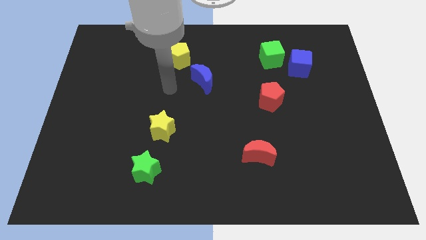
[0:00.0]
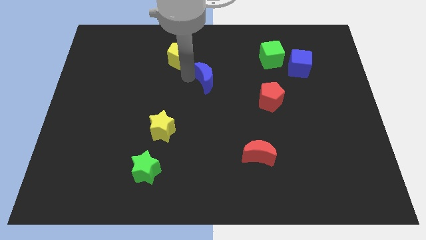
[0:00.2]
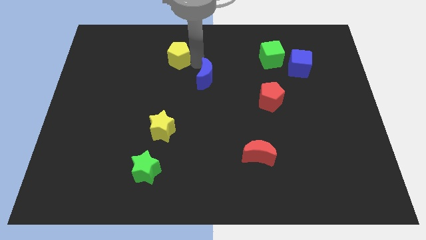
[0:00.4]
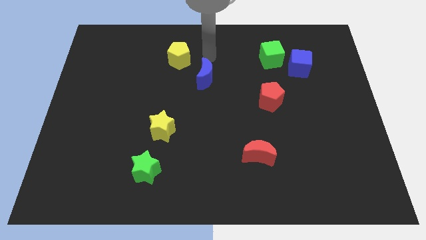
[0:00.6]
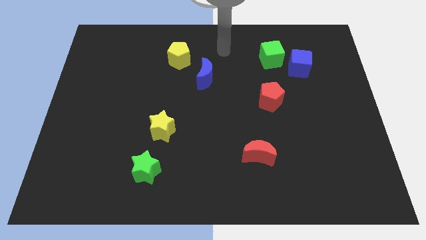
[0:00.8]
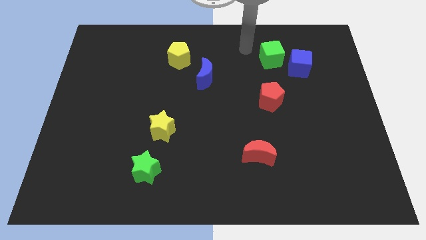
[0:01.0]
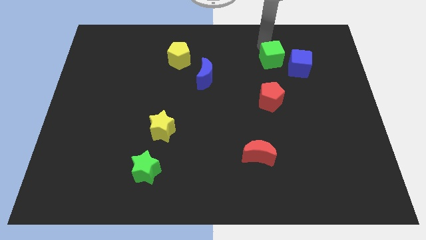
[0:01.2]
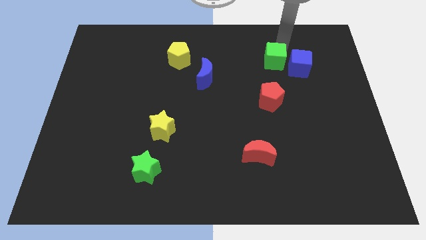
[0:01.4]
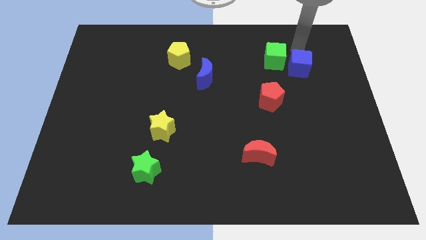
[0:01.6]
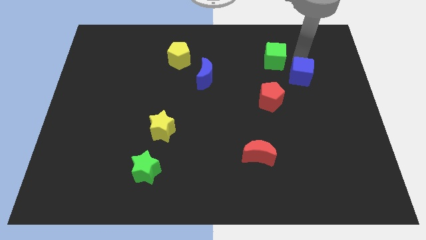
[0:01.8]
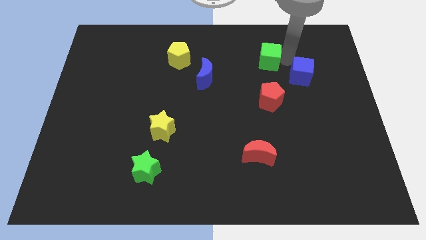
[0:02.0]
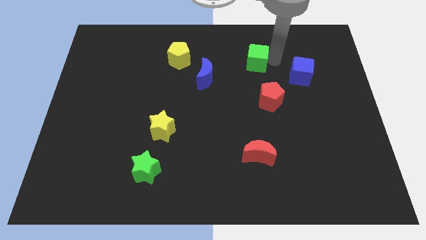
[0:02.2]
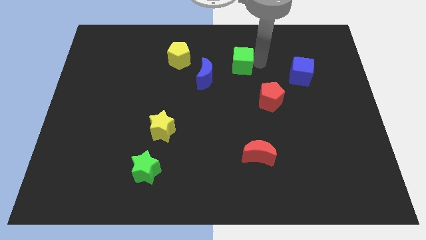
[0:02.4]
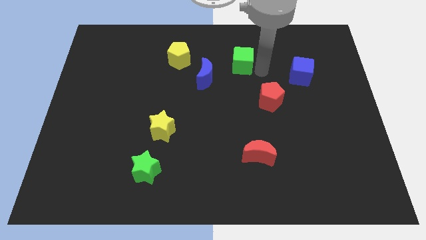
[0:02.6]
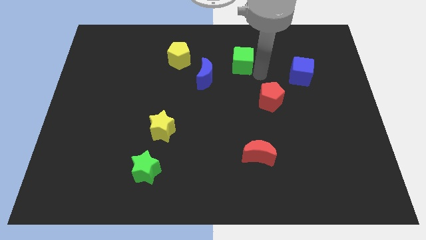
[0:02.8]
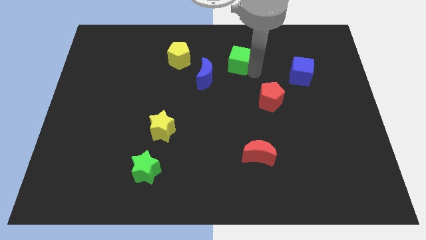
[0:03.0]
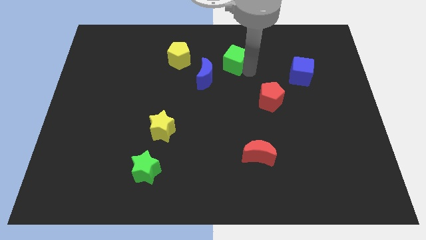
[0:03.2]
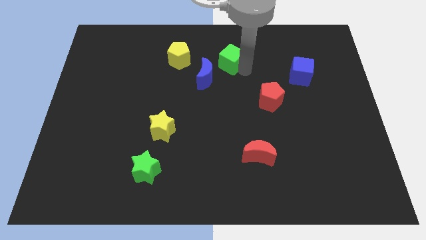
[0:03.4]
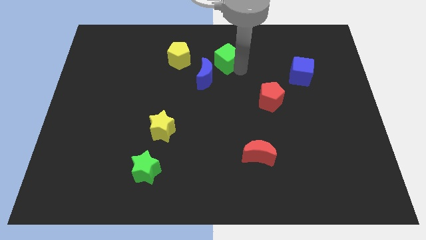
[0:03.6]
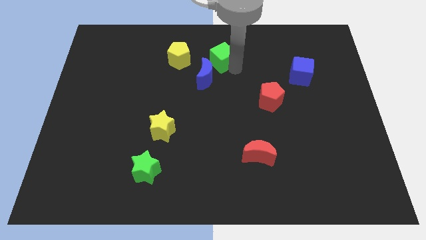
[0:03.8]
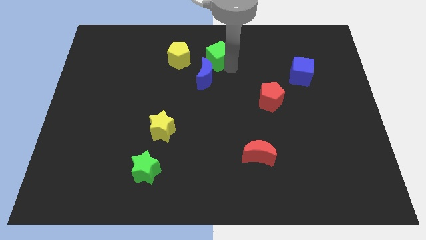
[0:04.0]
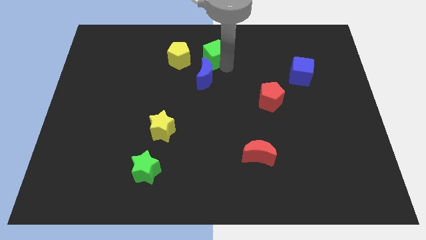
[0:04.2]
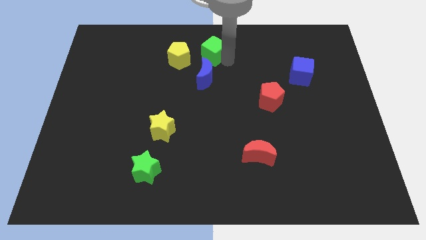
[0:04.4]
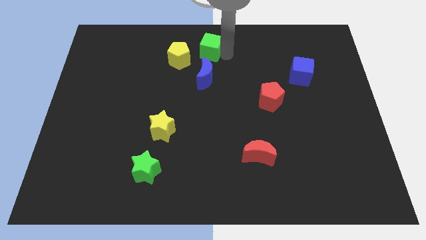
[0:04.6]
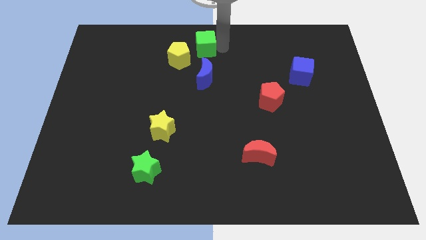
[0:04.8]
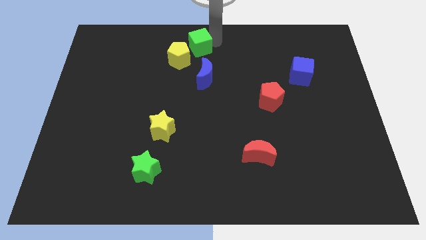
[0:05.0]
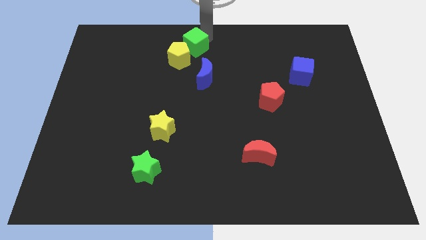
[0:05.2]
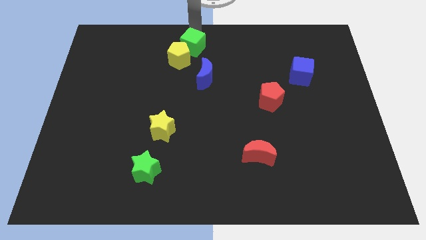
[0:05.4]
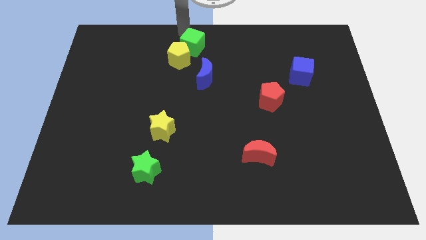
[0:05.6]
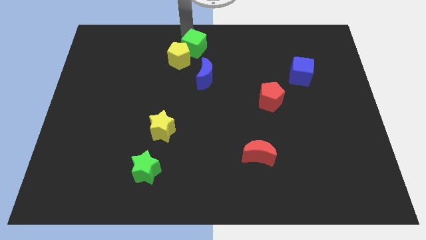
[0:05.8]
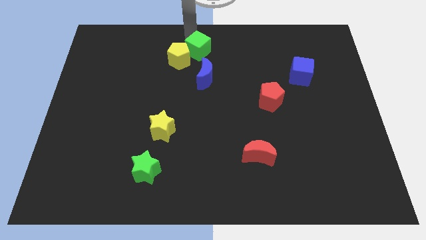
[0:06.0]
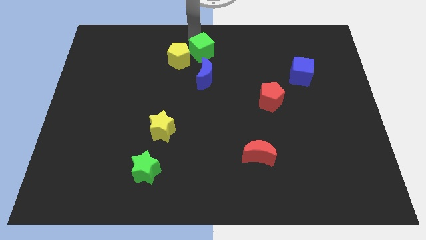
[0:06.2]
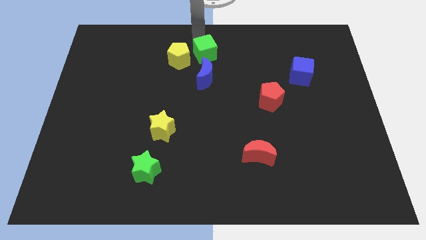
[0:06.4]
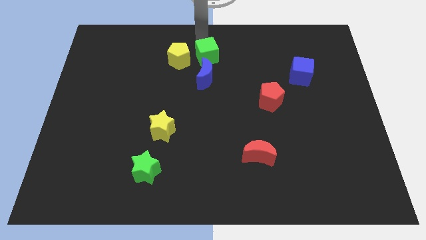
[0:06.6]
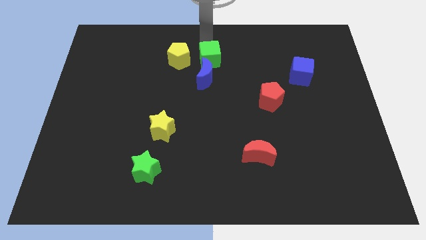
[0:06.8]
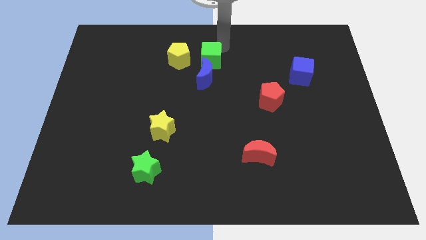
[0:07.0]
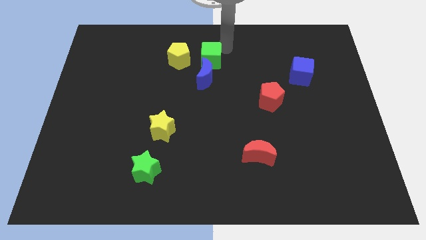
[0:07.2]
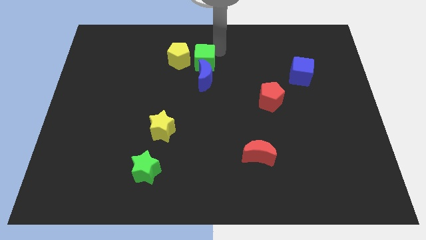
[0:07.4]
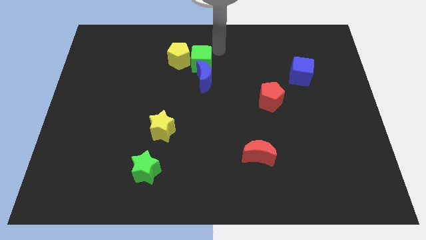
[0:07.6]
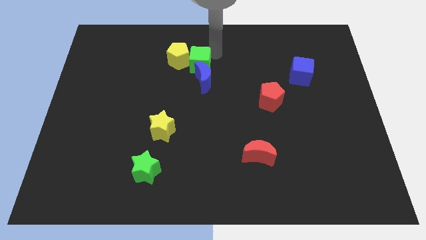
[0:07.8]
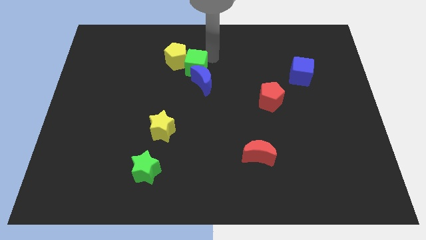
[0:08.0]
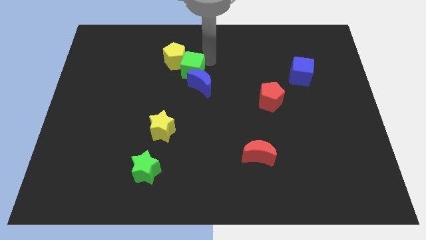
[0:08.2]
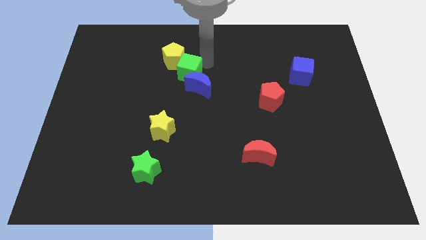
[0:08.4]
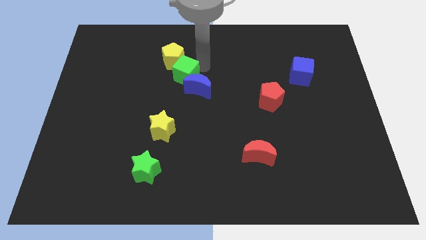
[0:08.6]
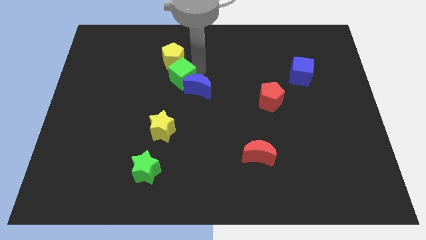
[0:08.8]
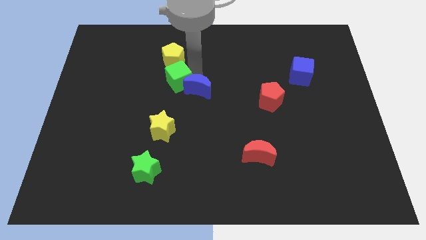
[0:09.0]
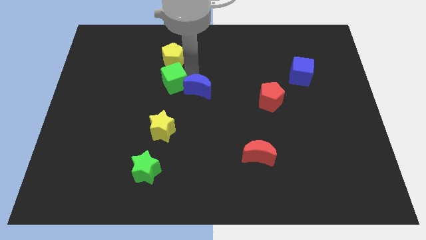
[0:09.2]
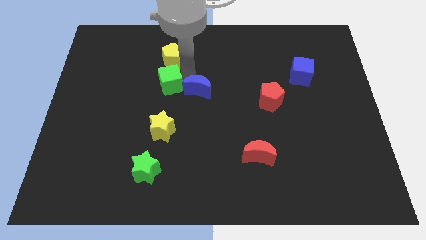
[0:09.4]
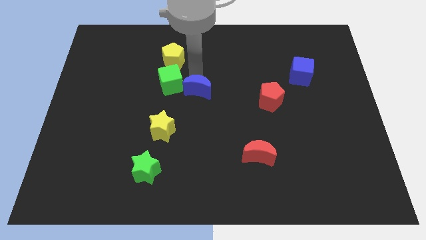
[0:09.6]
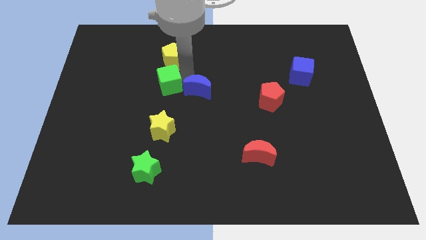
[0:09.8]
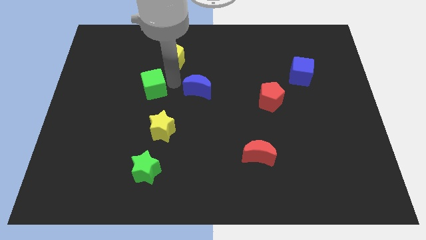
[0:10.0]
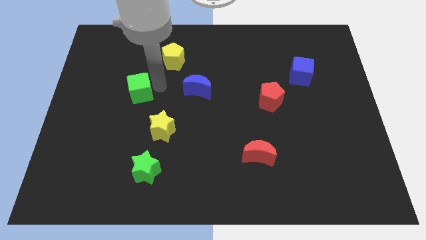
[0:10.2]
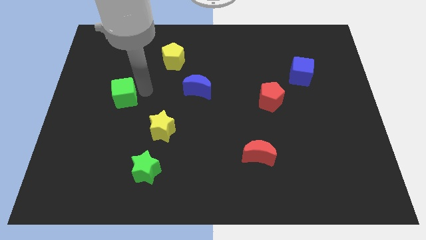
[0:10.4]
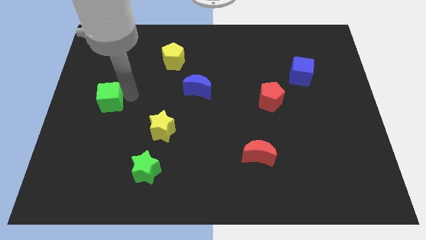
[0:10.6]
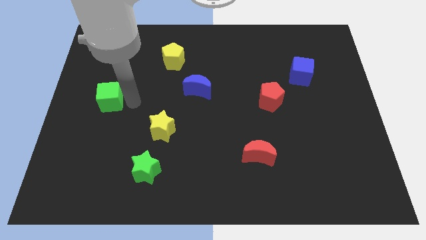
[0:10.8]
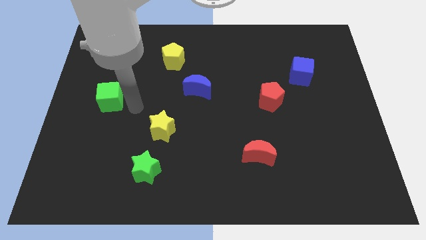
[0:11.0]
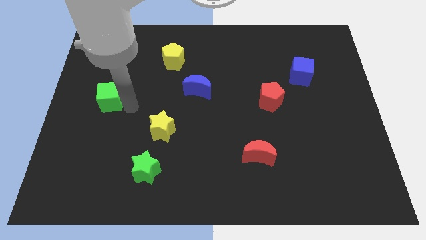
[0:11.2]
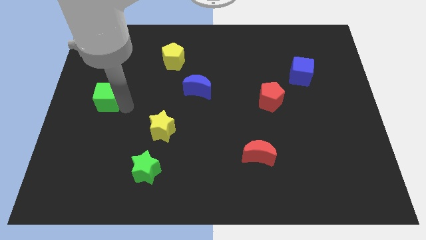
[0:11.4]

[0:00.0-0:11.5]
move the green cube to the left side of the board

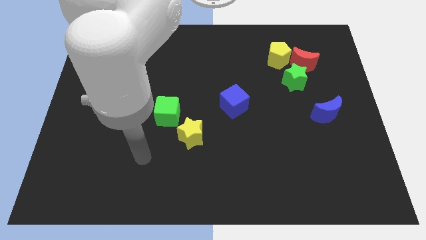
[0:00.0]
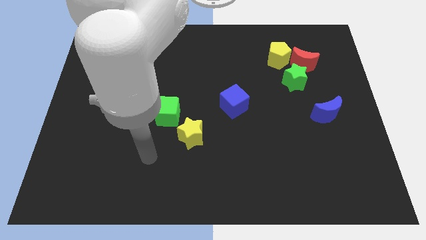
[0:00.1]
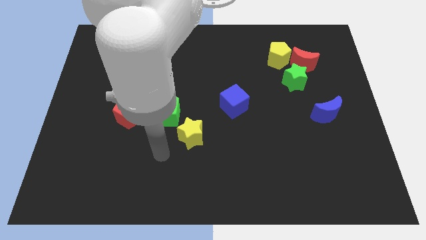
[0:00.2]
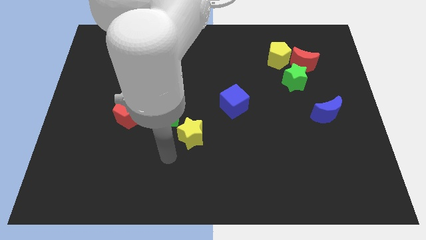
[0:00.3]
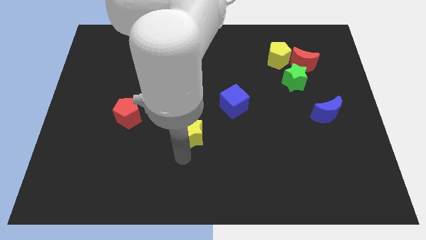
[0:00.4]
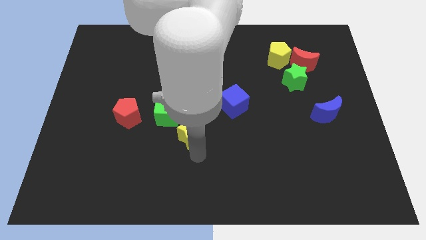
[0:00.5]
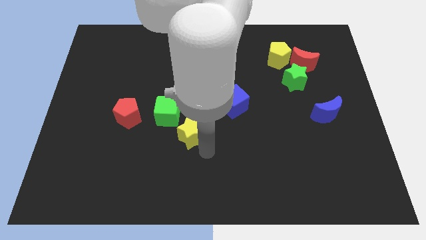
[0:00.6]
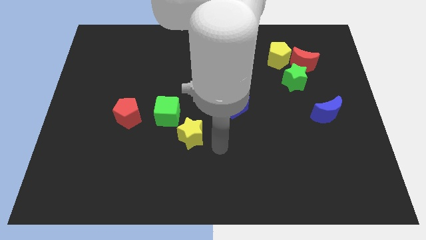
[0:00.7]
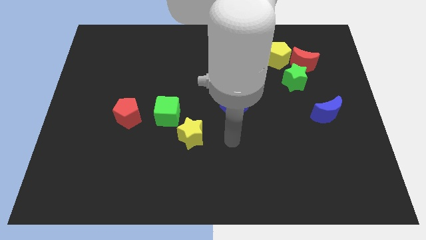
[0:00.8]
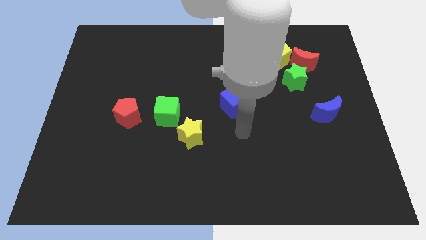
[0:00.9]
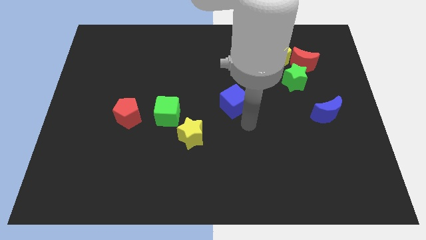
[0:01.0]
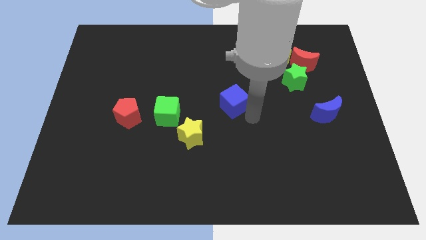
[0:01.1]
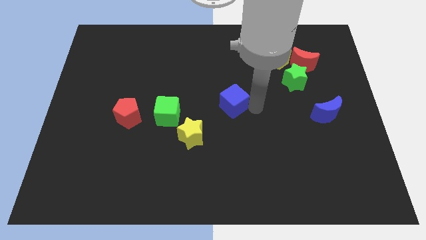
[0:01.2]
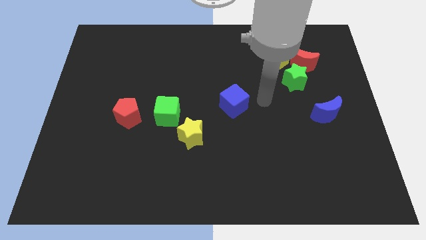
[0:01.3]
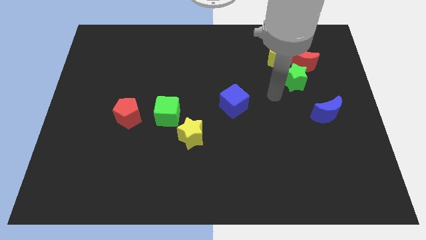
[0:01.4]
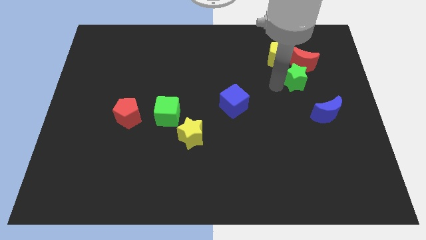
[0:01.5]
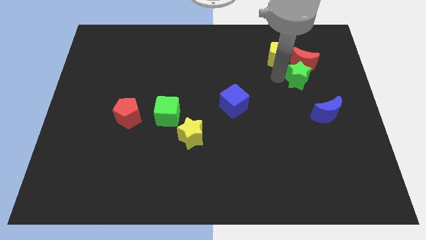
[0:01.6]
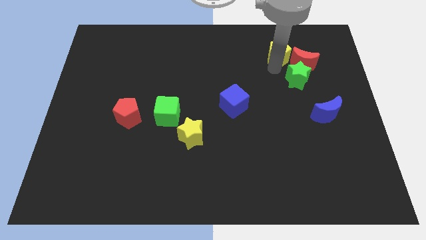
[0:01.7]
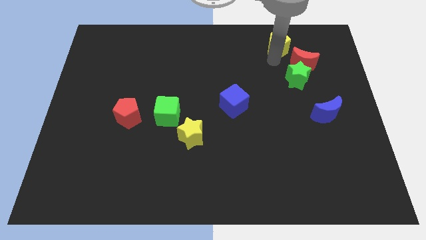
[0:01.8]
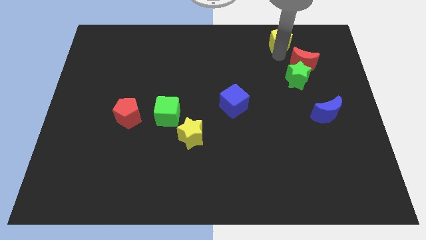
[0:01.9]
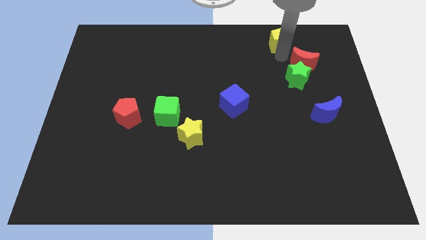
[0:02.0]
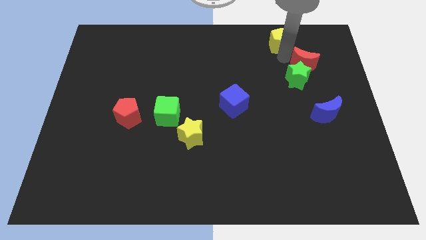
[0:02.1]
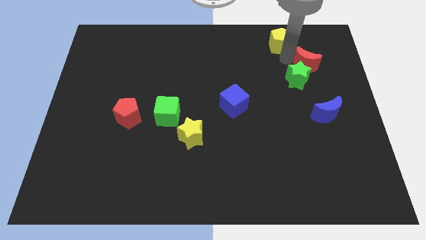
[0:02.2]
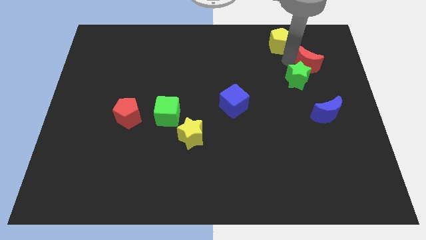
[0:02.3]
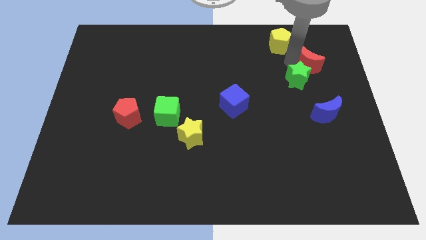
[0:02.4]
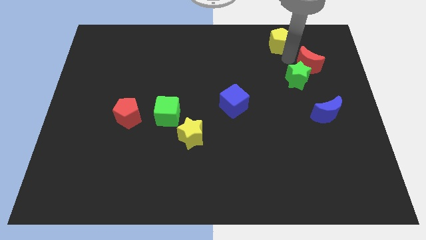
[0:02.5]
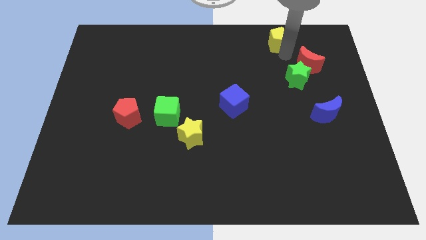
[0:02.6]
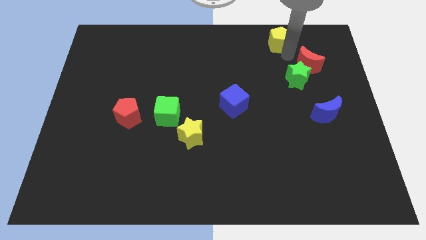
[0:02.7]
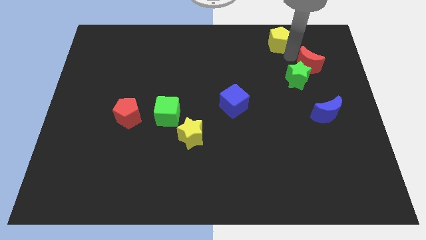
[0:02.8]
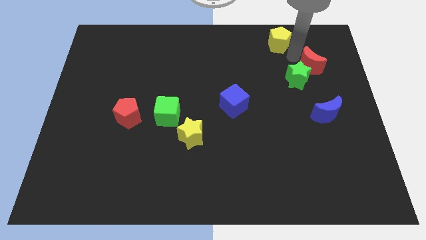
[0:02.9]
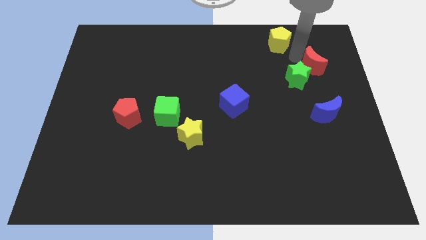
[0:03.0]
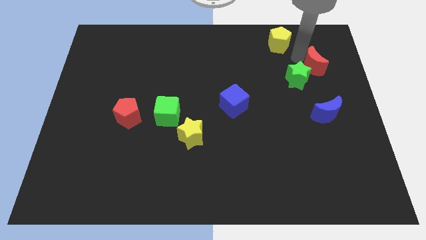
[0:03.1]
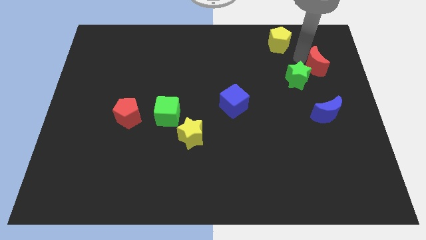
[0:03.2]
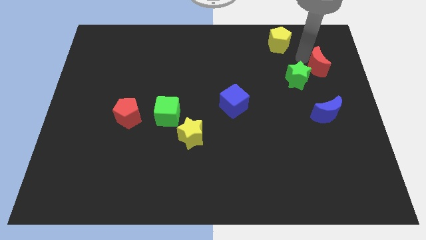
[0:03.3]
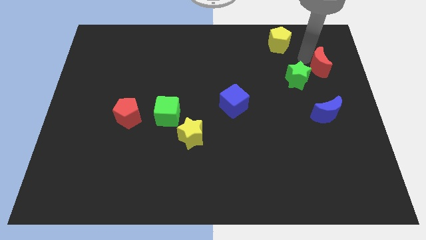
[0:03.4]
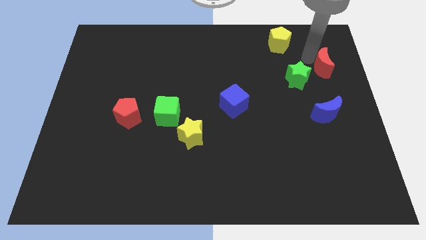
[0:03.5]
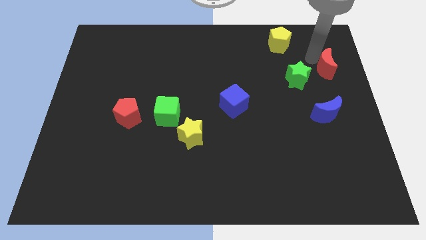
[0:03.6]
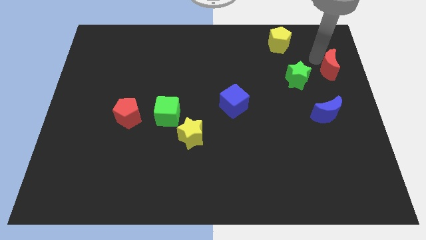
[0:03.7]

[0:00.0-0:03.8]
put the red moon to the center right
